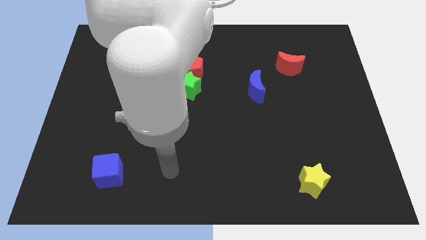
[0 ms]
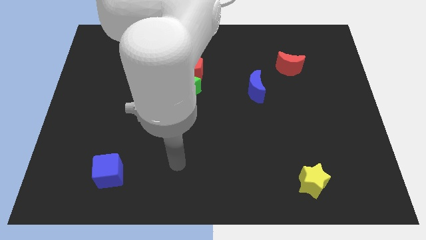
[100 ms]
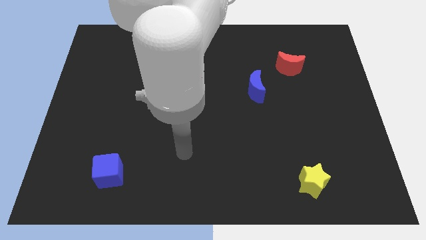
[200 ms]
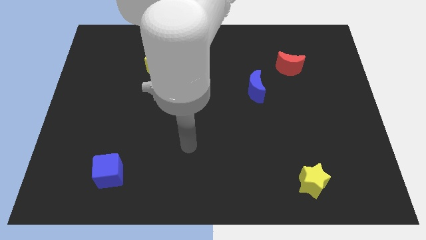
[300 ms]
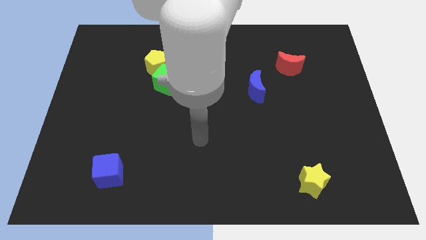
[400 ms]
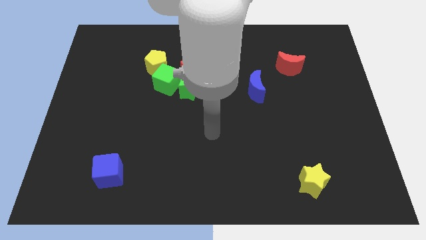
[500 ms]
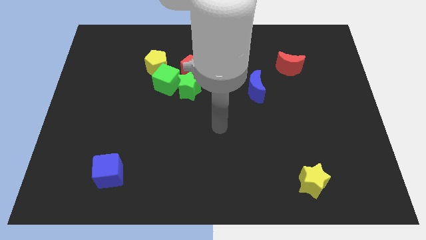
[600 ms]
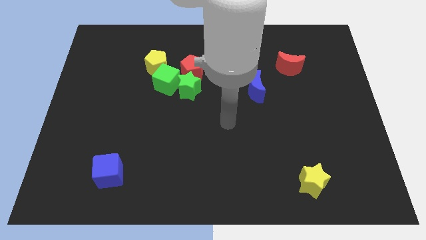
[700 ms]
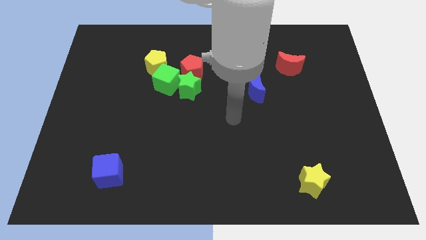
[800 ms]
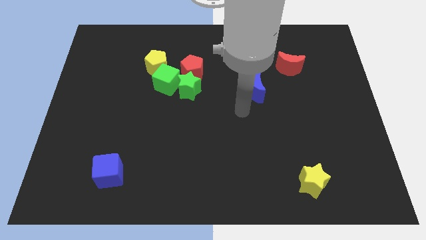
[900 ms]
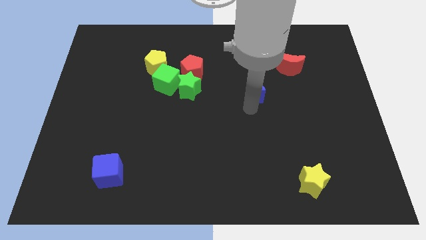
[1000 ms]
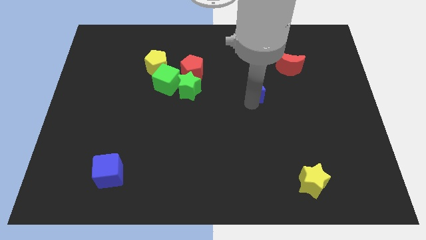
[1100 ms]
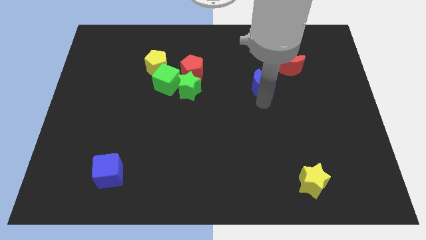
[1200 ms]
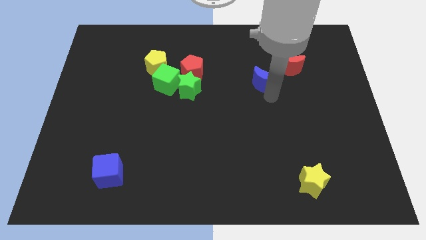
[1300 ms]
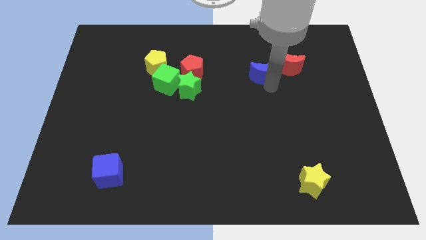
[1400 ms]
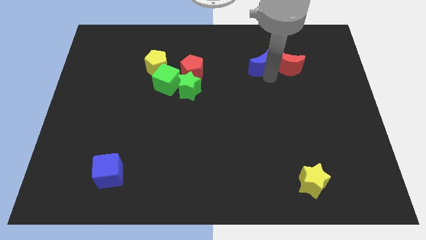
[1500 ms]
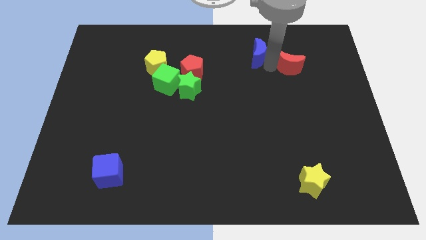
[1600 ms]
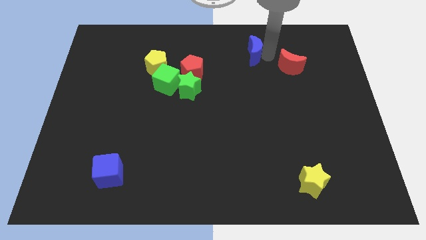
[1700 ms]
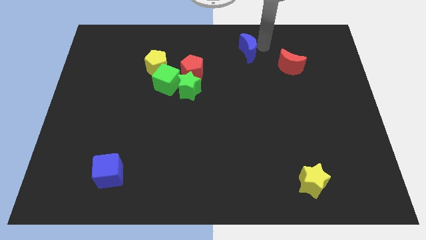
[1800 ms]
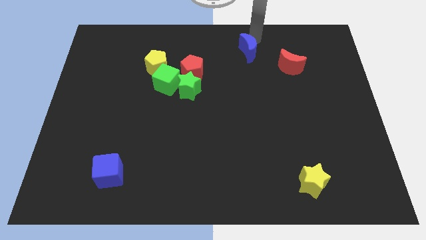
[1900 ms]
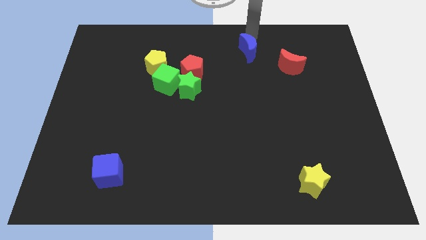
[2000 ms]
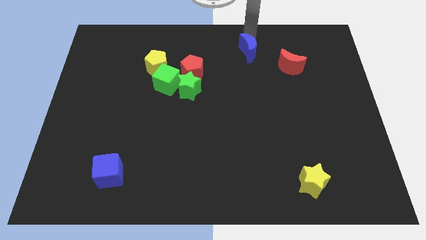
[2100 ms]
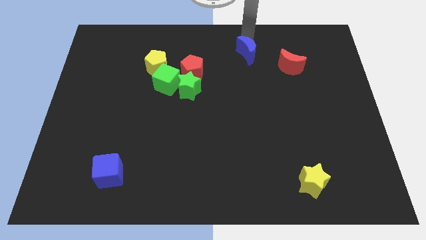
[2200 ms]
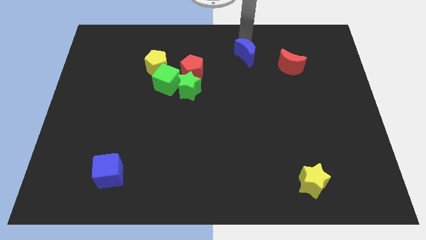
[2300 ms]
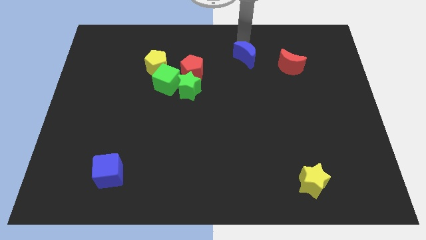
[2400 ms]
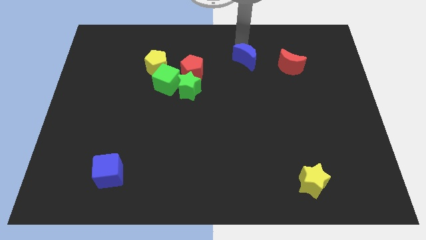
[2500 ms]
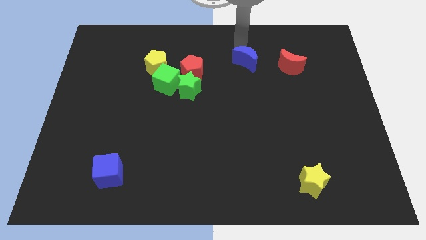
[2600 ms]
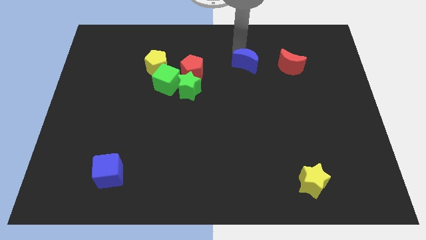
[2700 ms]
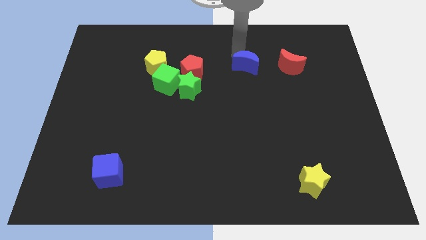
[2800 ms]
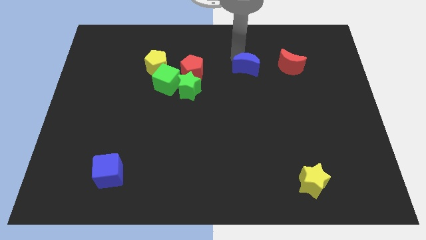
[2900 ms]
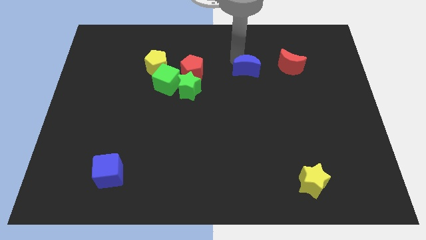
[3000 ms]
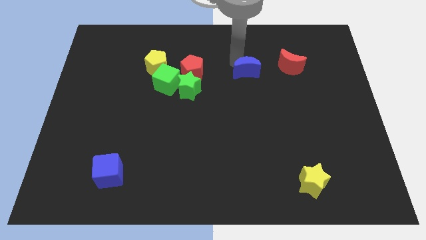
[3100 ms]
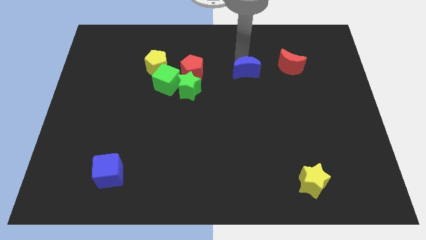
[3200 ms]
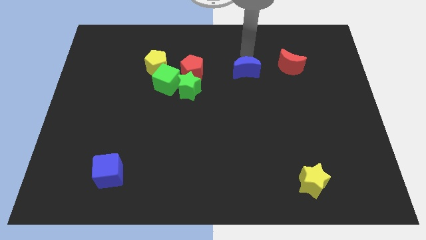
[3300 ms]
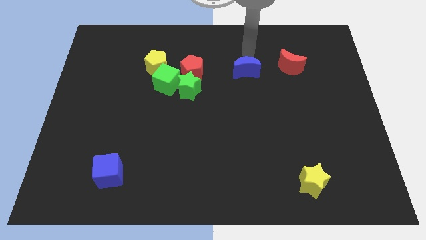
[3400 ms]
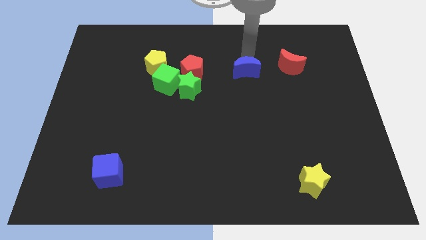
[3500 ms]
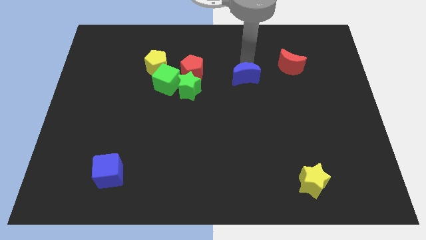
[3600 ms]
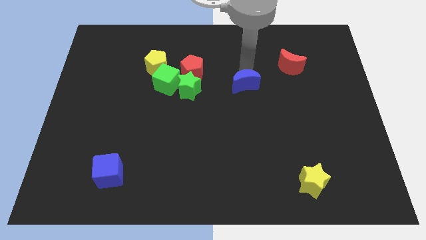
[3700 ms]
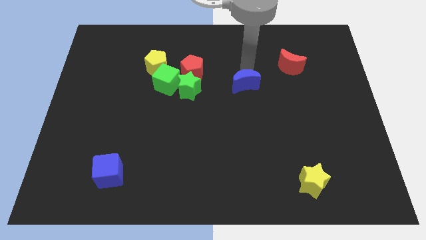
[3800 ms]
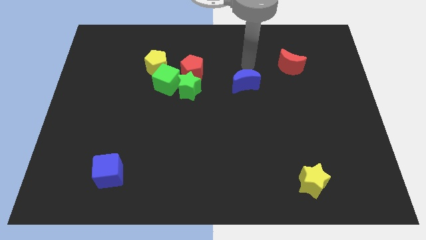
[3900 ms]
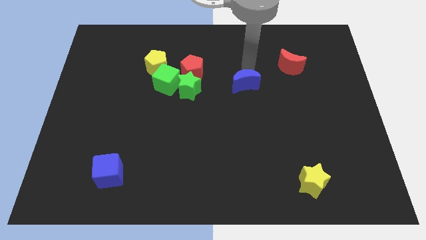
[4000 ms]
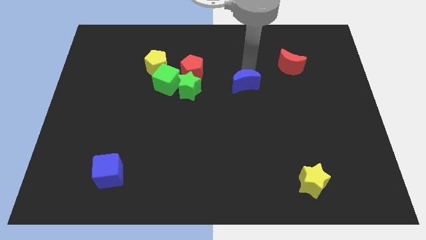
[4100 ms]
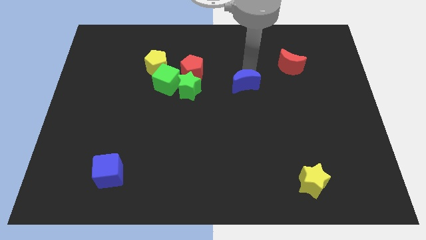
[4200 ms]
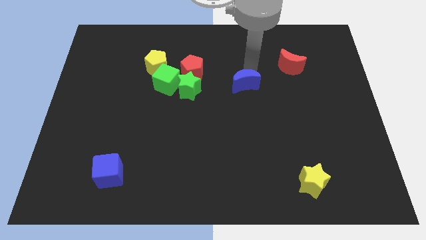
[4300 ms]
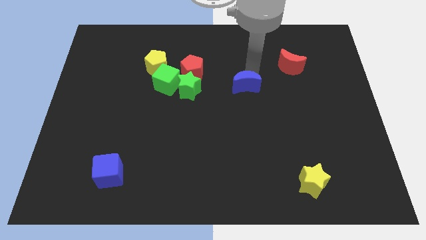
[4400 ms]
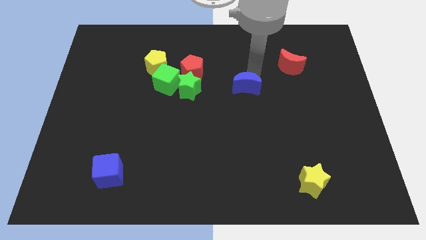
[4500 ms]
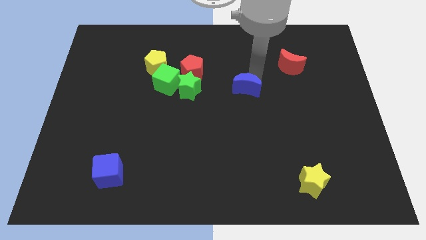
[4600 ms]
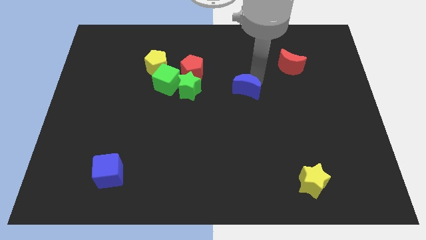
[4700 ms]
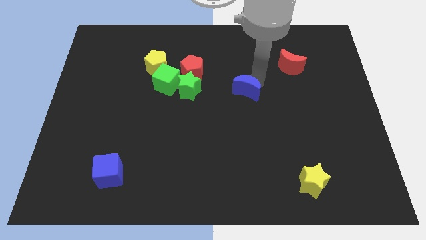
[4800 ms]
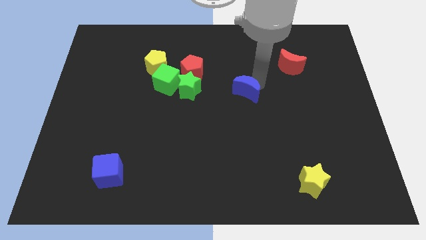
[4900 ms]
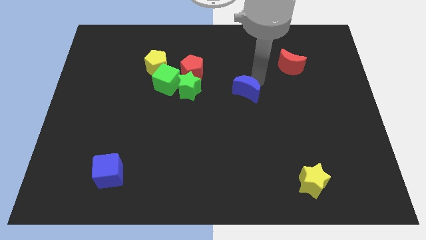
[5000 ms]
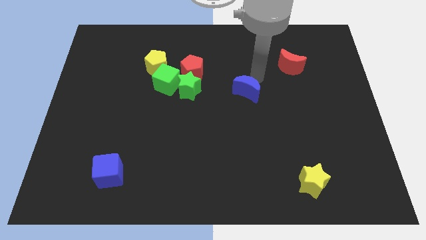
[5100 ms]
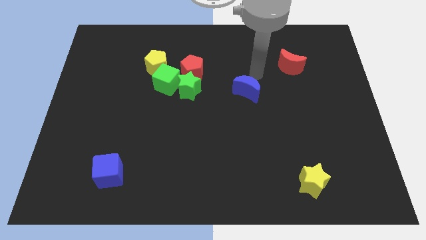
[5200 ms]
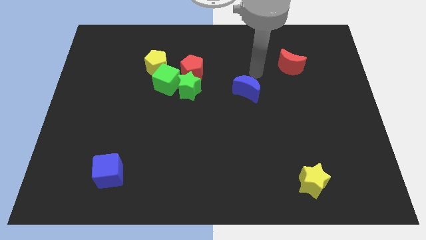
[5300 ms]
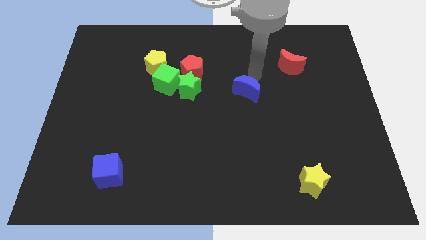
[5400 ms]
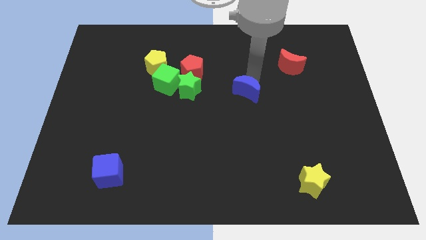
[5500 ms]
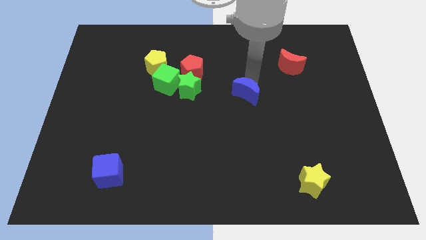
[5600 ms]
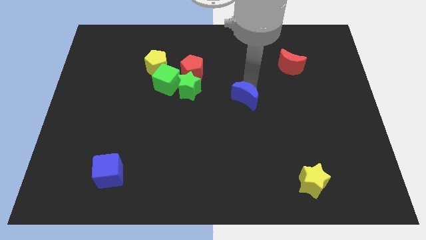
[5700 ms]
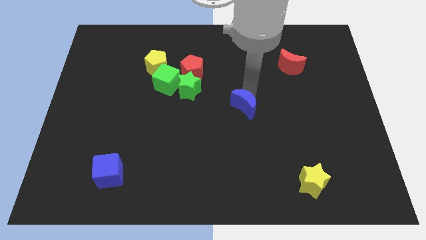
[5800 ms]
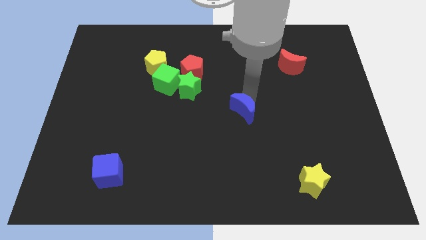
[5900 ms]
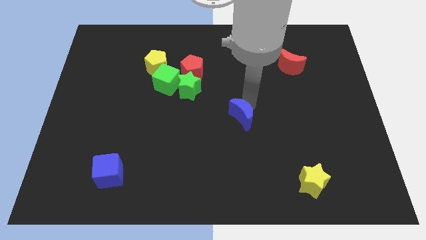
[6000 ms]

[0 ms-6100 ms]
move the blue moon down and left a little

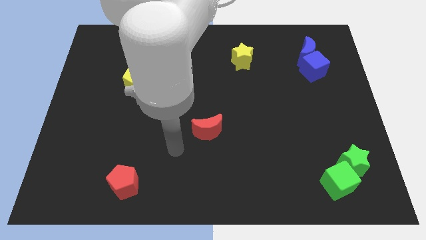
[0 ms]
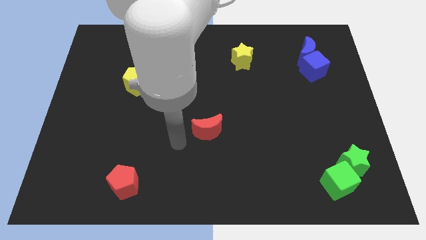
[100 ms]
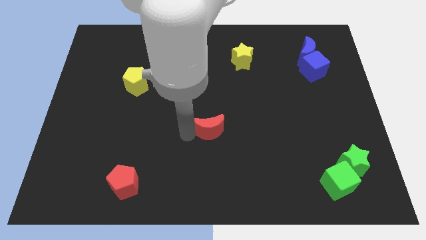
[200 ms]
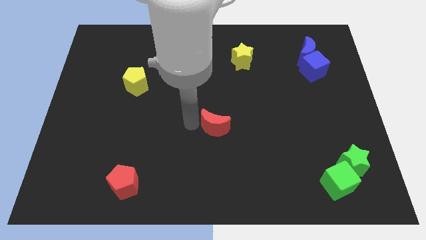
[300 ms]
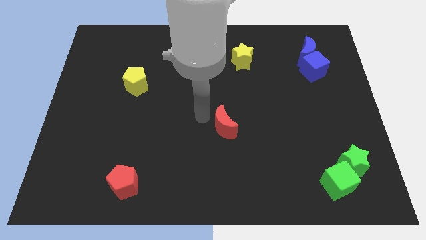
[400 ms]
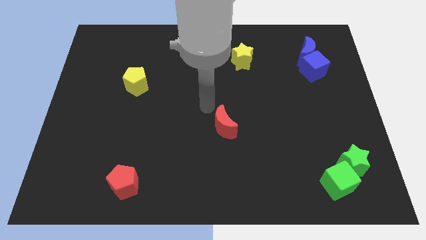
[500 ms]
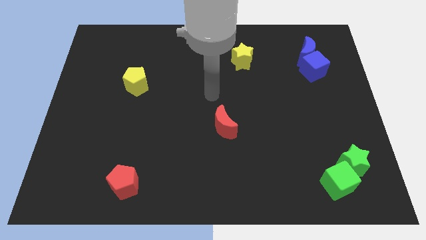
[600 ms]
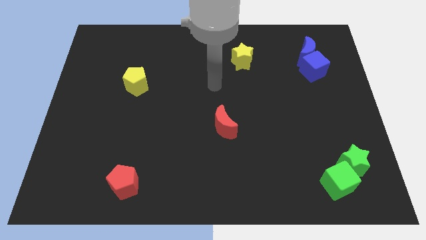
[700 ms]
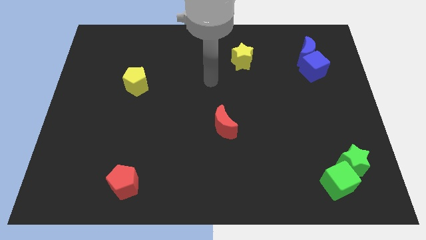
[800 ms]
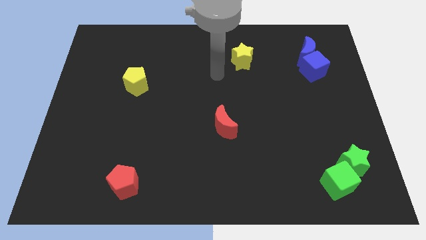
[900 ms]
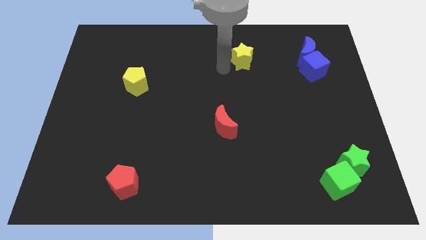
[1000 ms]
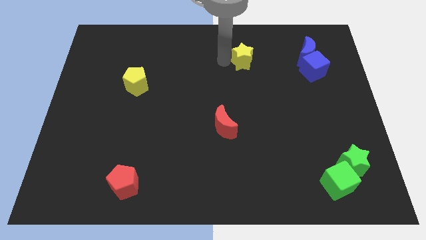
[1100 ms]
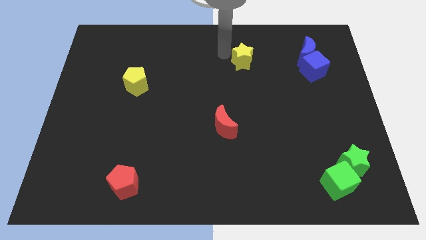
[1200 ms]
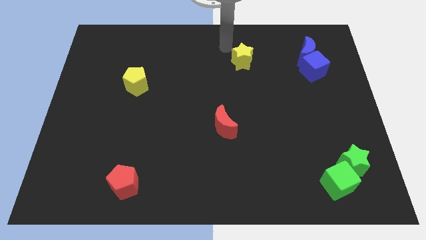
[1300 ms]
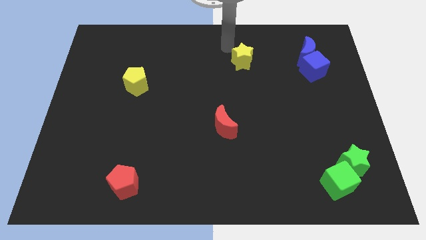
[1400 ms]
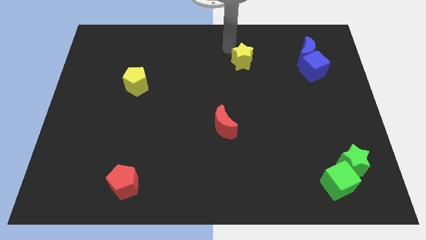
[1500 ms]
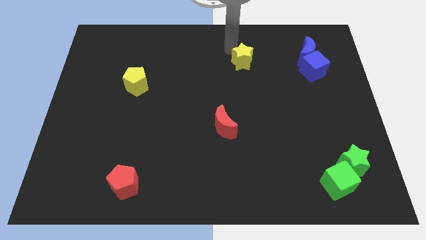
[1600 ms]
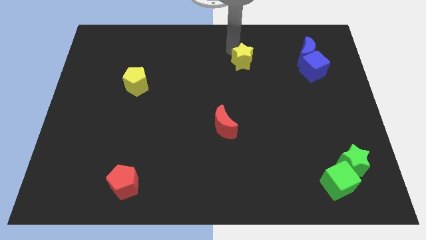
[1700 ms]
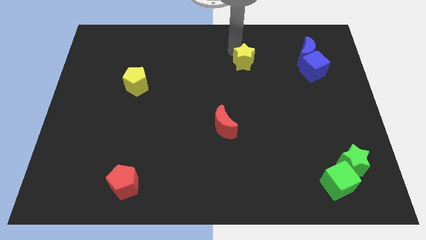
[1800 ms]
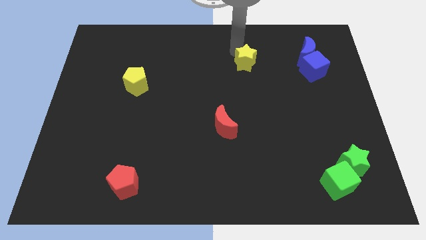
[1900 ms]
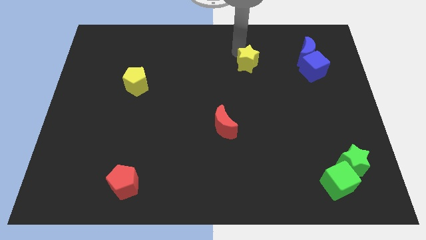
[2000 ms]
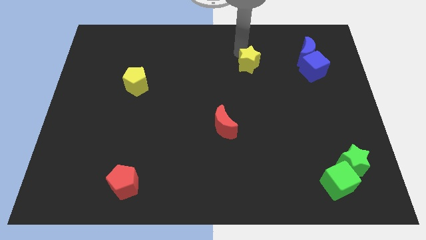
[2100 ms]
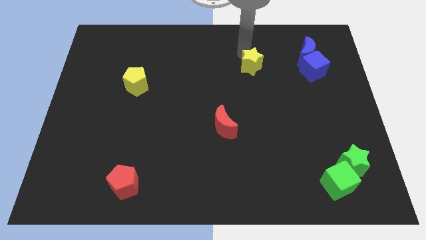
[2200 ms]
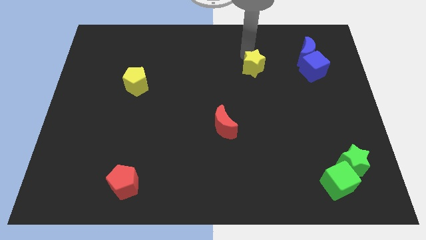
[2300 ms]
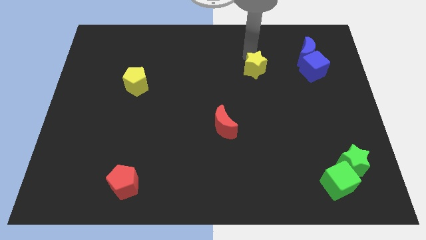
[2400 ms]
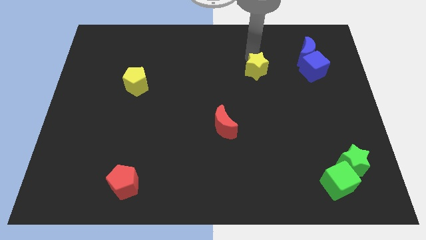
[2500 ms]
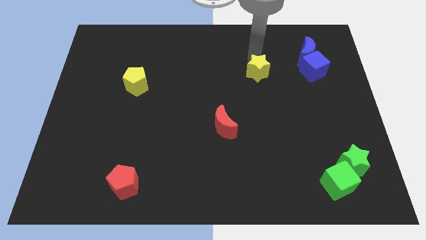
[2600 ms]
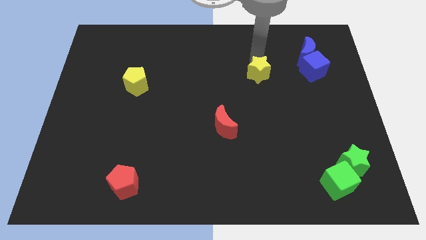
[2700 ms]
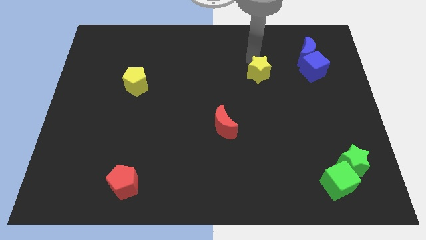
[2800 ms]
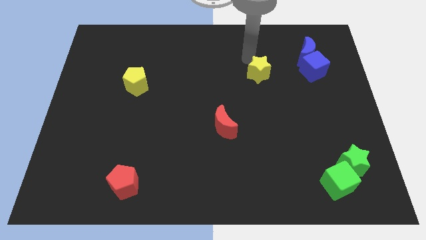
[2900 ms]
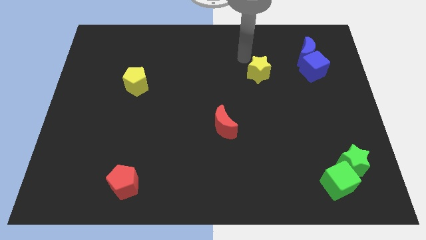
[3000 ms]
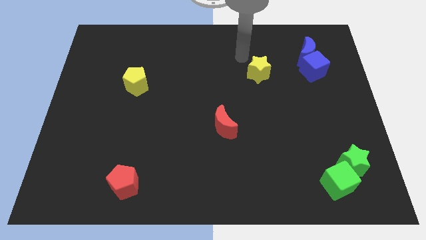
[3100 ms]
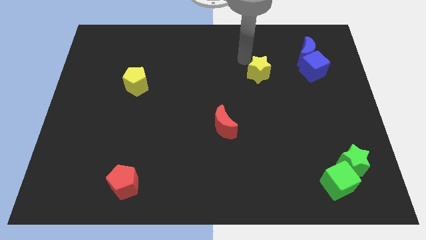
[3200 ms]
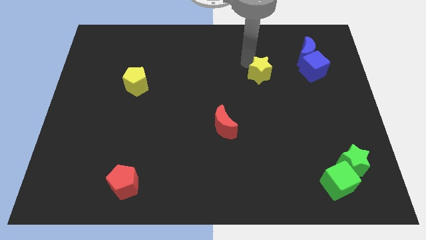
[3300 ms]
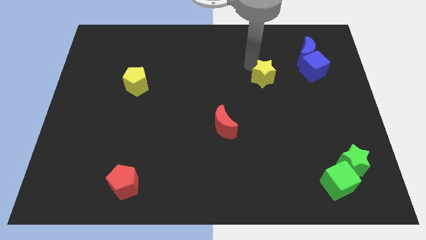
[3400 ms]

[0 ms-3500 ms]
slightly move the yellow star diagonally downwards and to the right
